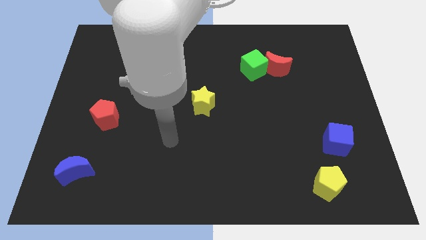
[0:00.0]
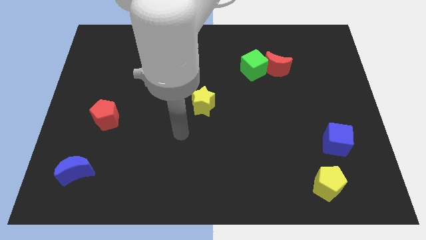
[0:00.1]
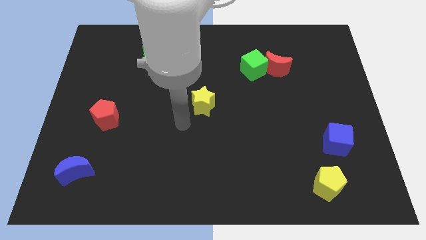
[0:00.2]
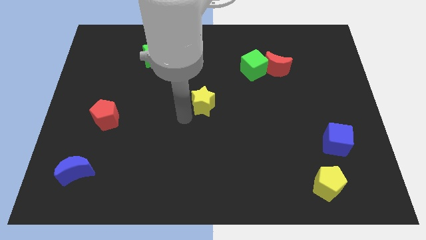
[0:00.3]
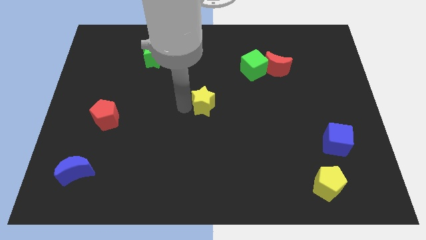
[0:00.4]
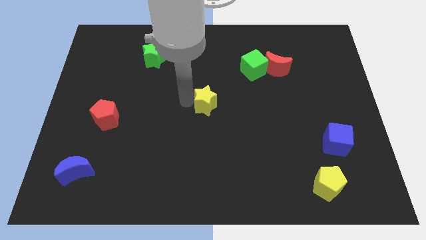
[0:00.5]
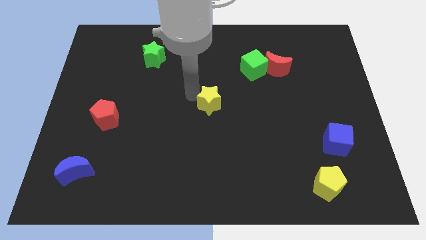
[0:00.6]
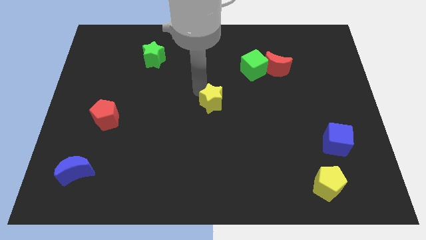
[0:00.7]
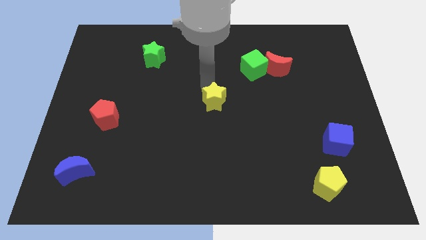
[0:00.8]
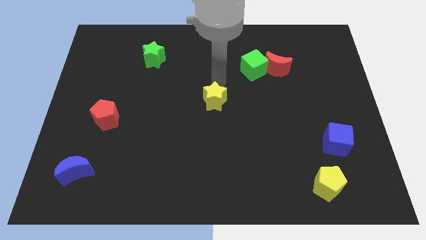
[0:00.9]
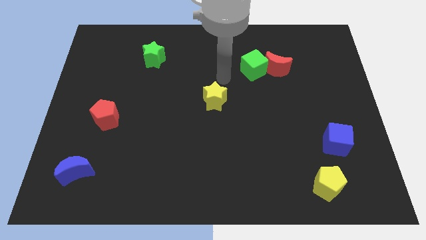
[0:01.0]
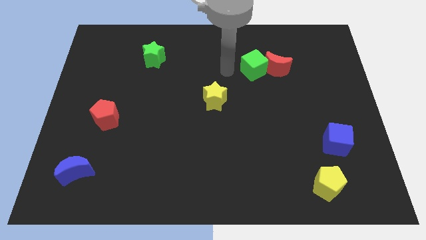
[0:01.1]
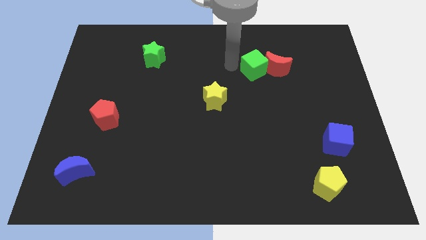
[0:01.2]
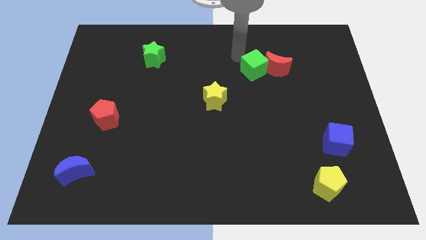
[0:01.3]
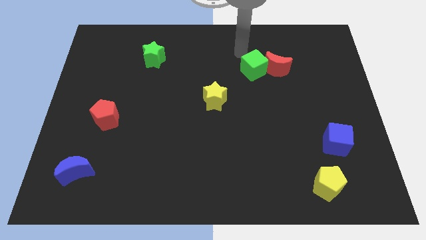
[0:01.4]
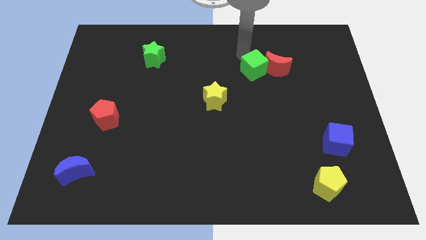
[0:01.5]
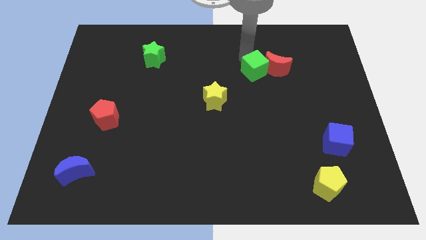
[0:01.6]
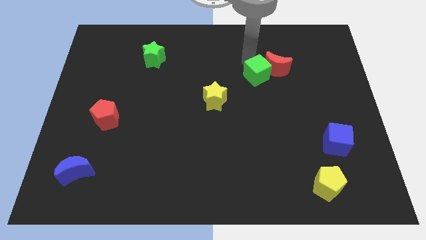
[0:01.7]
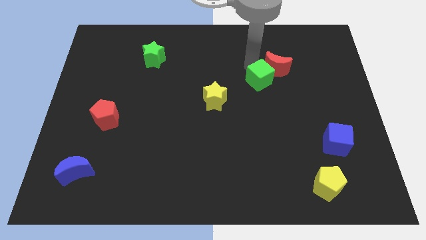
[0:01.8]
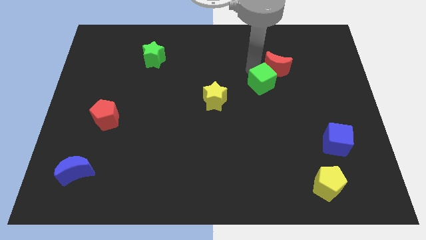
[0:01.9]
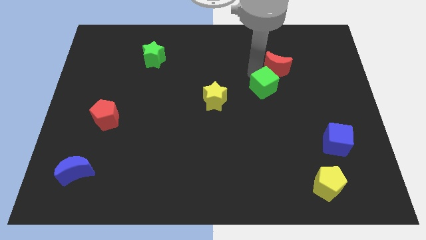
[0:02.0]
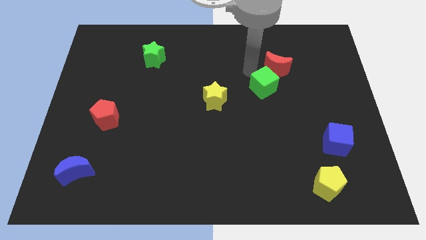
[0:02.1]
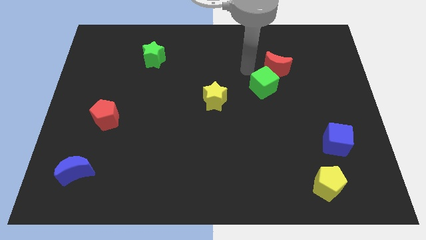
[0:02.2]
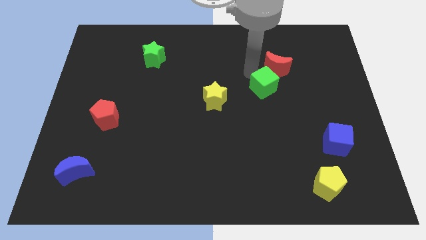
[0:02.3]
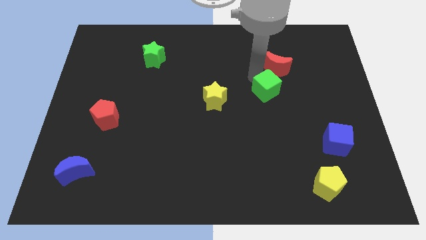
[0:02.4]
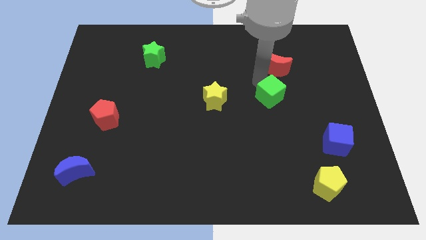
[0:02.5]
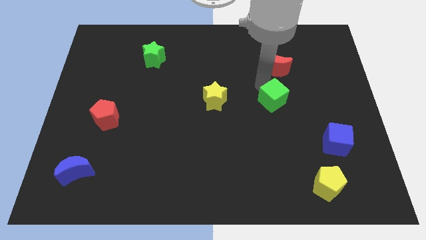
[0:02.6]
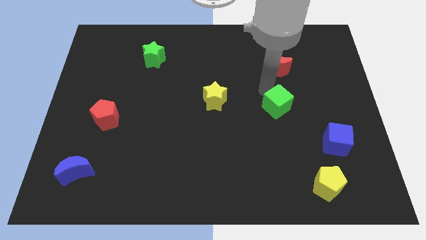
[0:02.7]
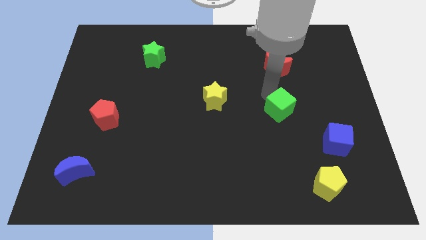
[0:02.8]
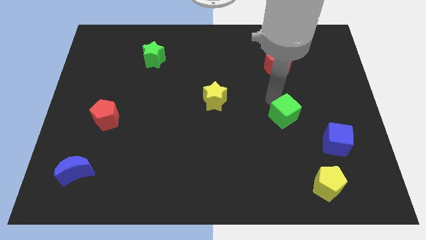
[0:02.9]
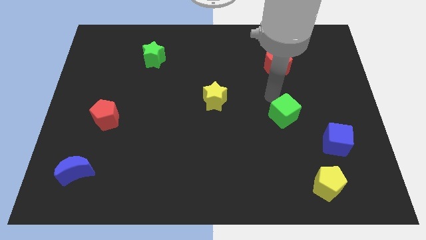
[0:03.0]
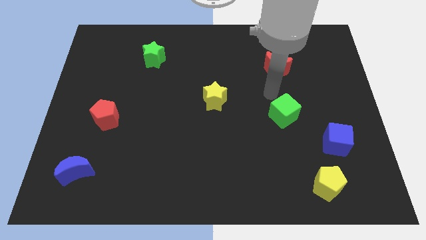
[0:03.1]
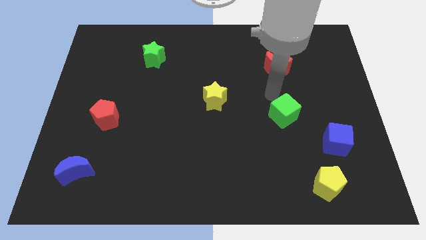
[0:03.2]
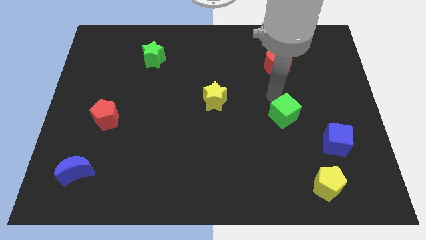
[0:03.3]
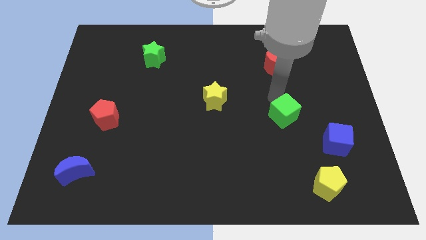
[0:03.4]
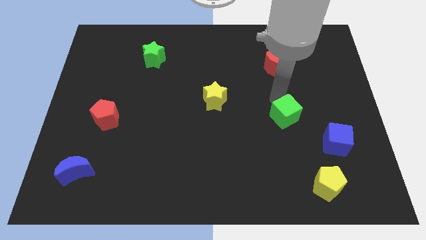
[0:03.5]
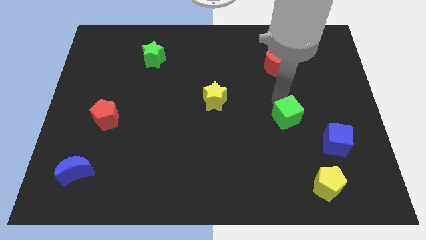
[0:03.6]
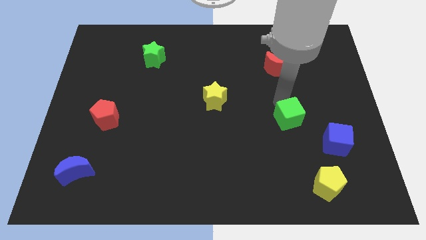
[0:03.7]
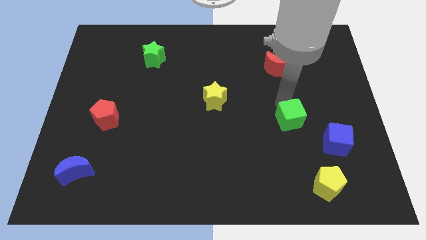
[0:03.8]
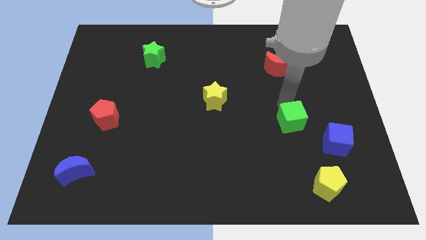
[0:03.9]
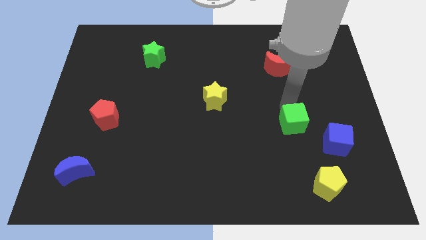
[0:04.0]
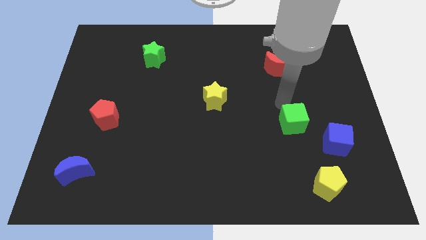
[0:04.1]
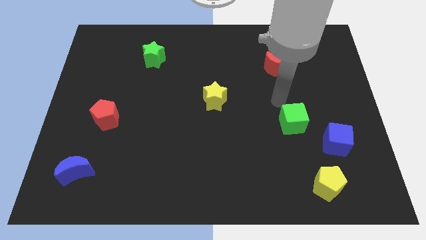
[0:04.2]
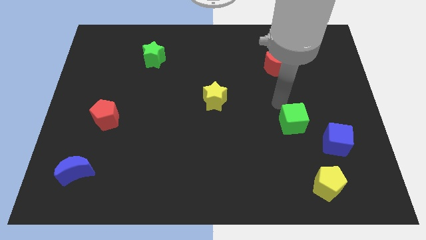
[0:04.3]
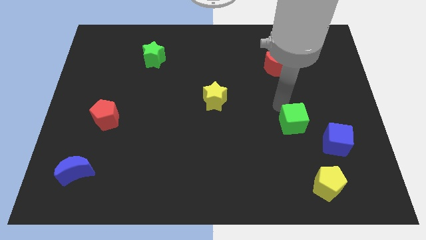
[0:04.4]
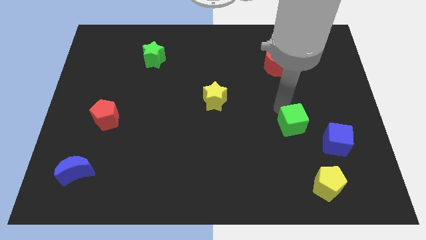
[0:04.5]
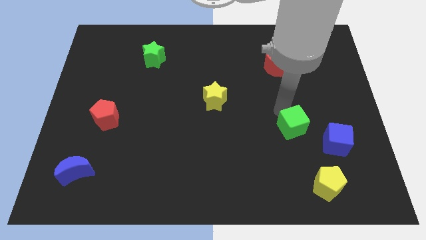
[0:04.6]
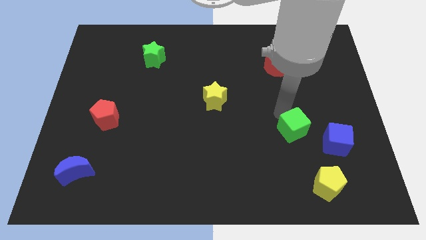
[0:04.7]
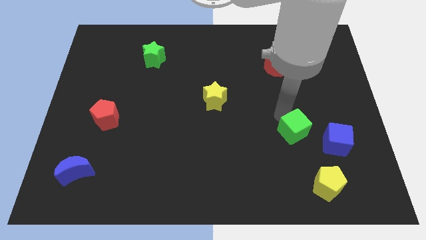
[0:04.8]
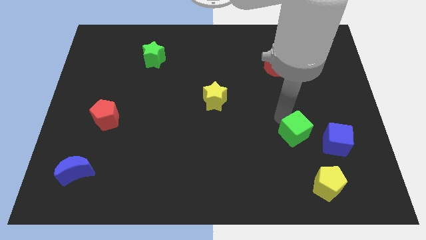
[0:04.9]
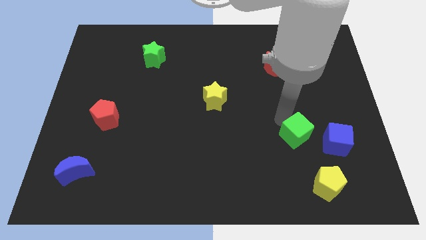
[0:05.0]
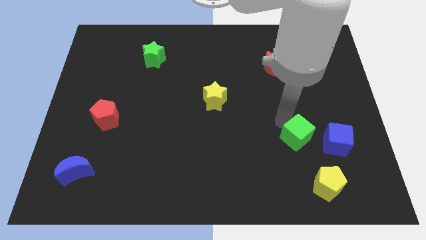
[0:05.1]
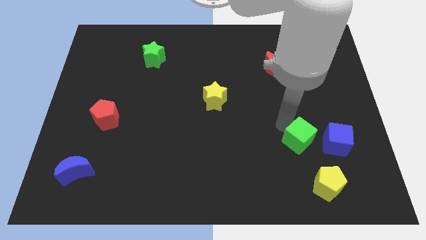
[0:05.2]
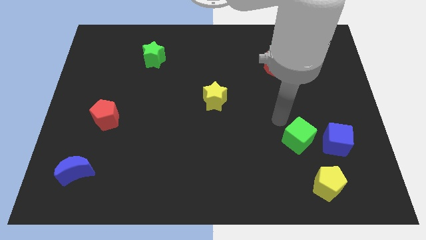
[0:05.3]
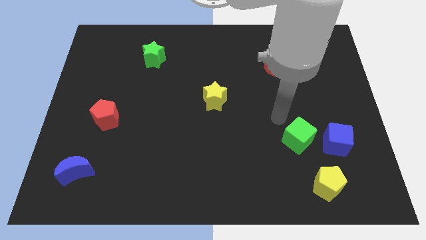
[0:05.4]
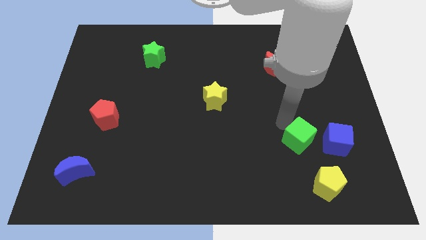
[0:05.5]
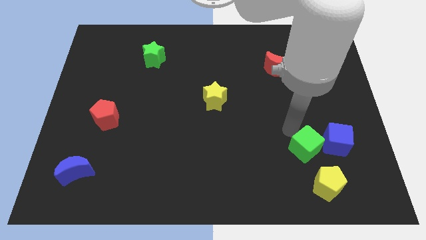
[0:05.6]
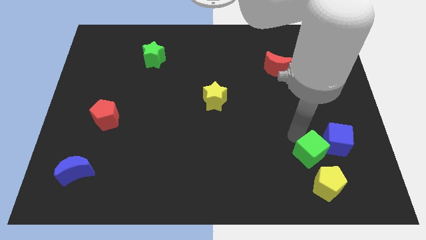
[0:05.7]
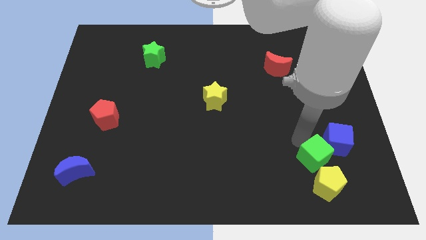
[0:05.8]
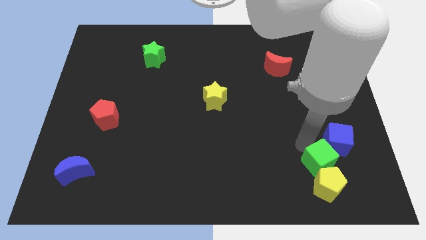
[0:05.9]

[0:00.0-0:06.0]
put the green cube to the top right of the yellow pentagon
